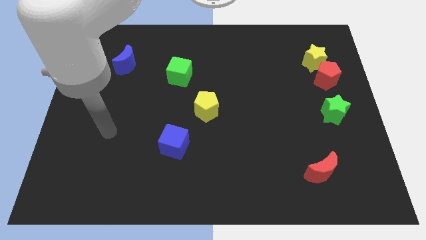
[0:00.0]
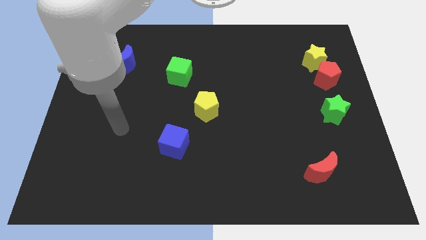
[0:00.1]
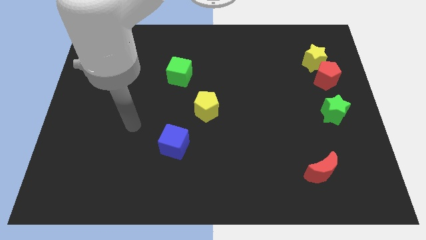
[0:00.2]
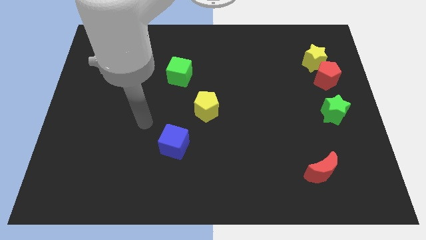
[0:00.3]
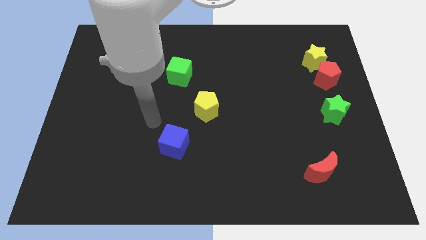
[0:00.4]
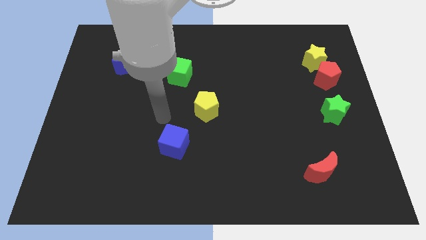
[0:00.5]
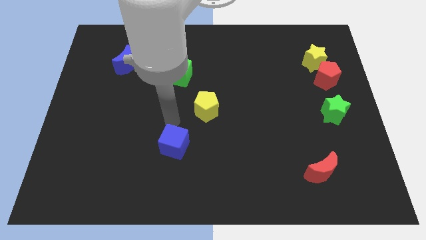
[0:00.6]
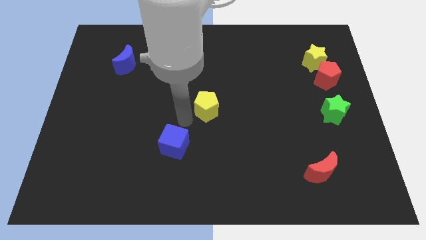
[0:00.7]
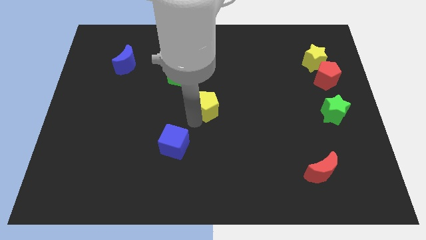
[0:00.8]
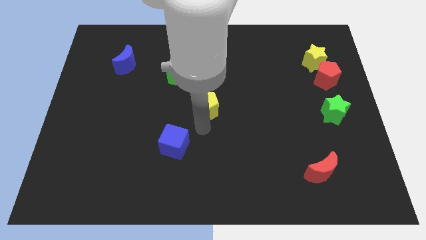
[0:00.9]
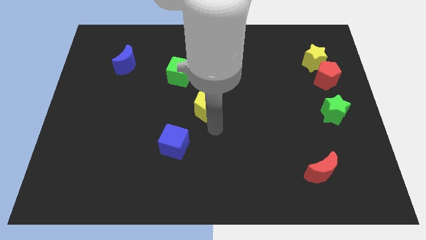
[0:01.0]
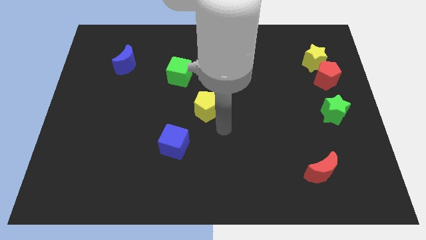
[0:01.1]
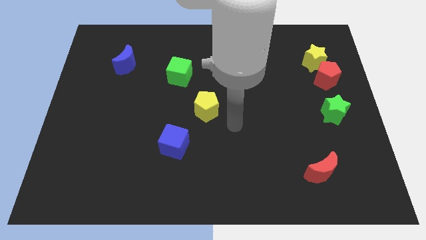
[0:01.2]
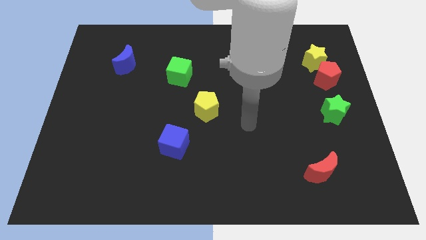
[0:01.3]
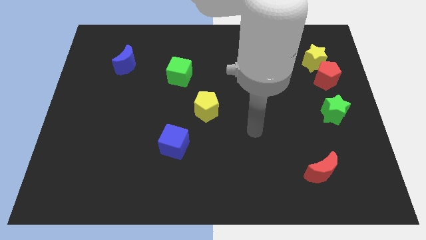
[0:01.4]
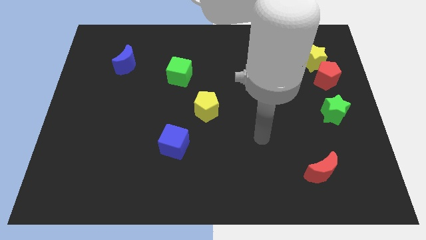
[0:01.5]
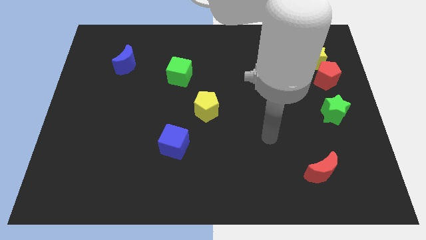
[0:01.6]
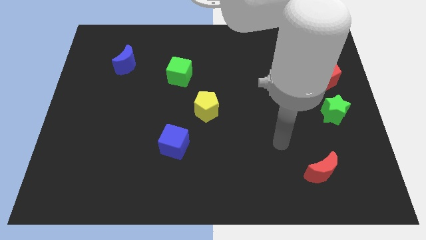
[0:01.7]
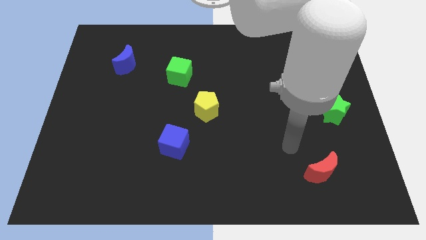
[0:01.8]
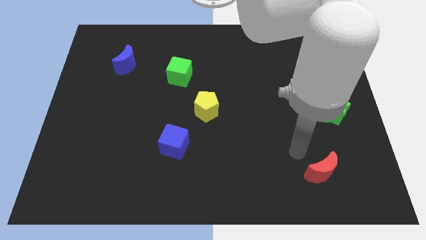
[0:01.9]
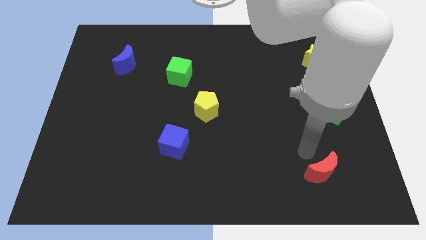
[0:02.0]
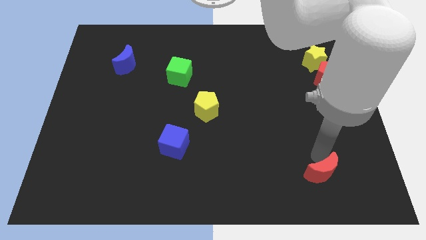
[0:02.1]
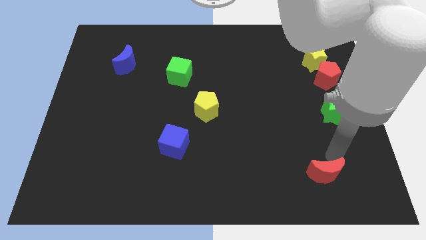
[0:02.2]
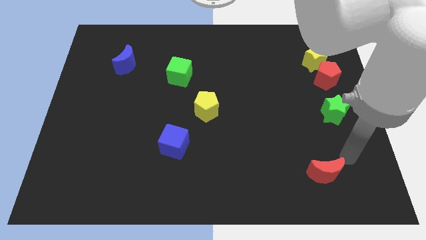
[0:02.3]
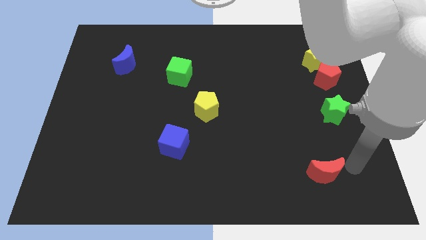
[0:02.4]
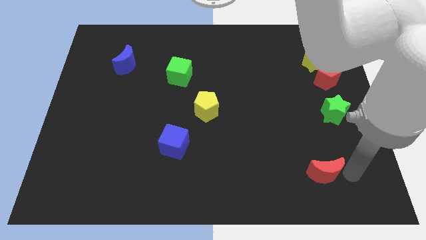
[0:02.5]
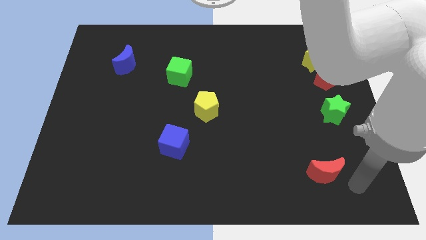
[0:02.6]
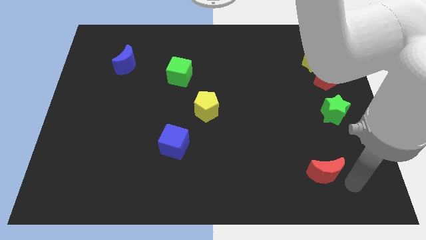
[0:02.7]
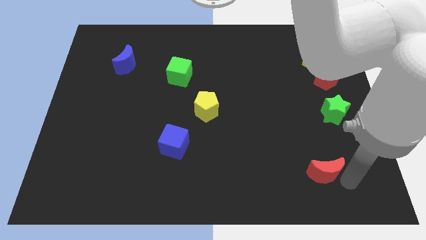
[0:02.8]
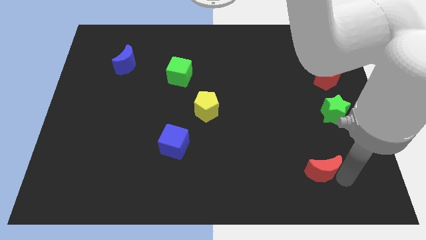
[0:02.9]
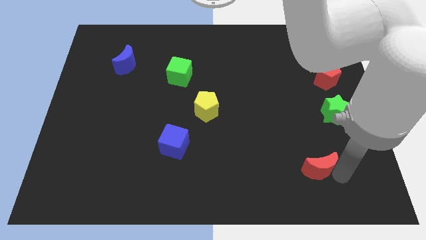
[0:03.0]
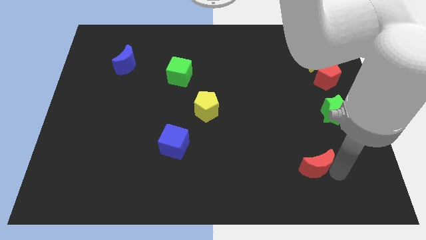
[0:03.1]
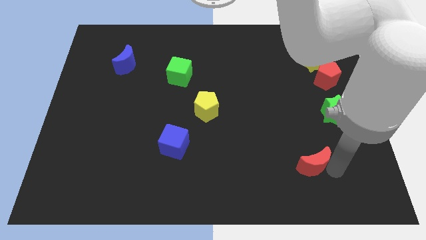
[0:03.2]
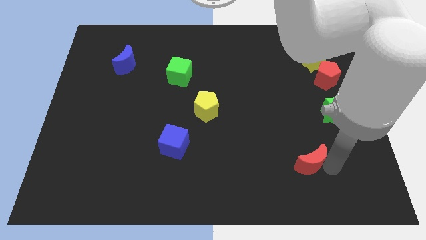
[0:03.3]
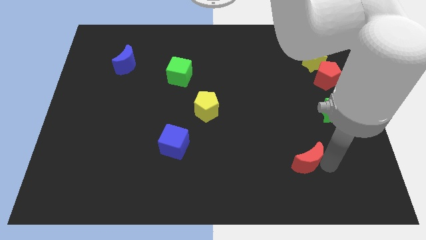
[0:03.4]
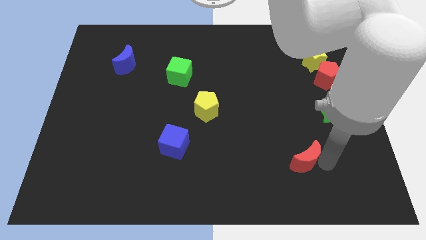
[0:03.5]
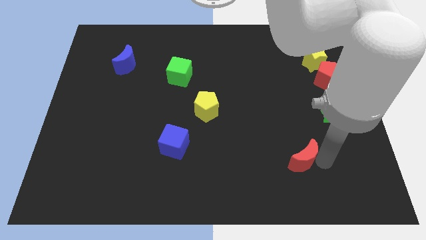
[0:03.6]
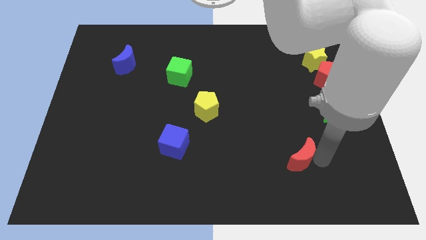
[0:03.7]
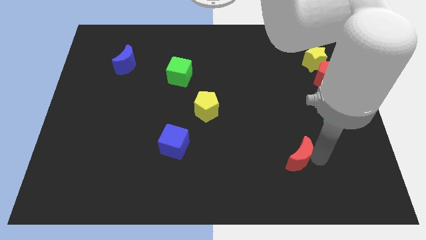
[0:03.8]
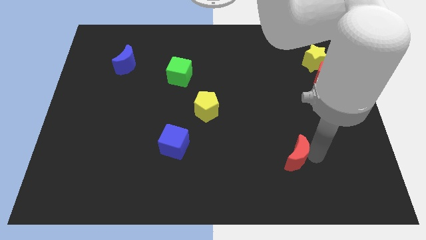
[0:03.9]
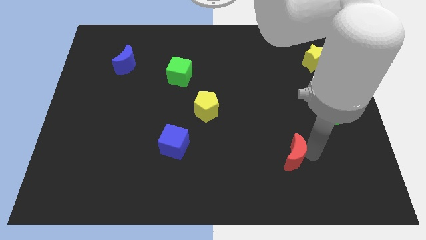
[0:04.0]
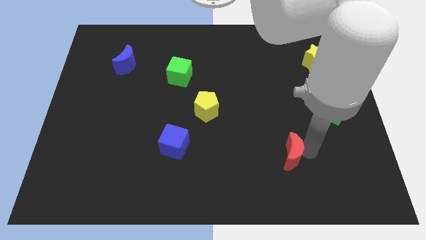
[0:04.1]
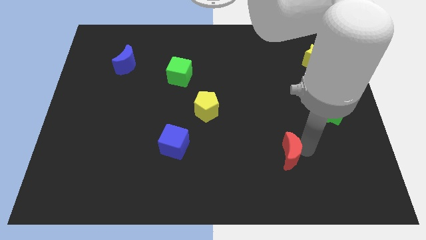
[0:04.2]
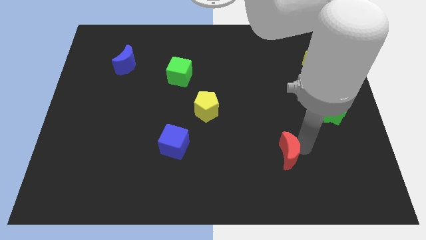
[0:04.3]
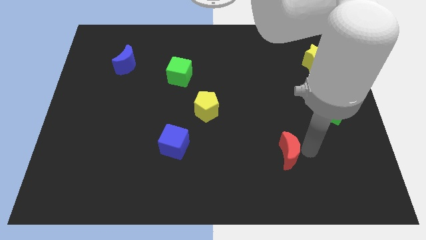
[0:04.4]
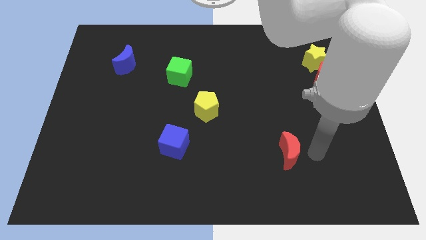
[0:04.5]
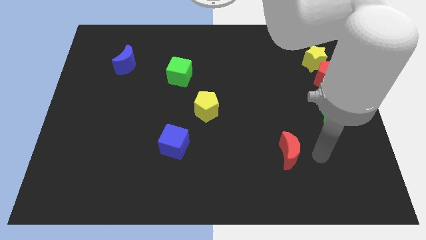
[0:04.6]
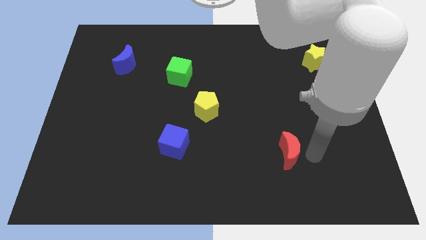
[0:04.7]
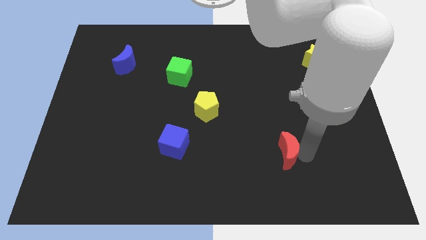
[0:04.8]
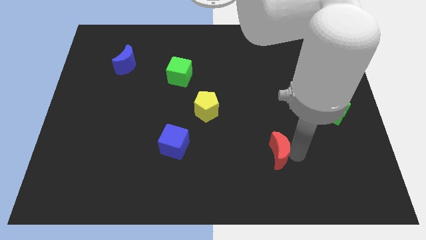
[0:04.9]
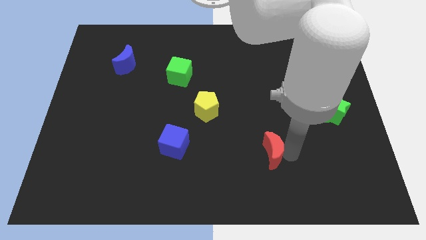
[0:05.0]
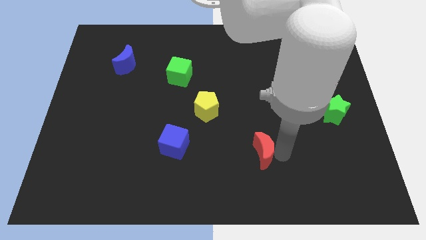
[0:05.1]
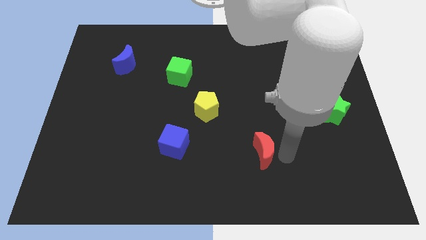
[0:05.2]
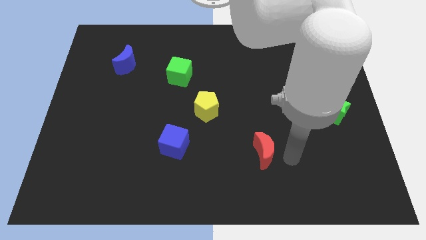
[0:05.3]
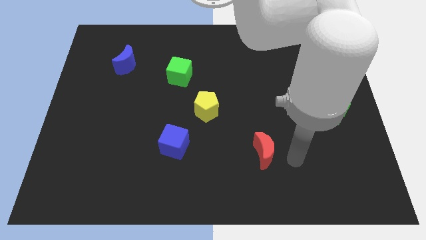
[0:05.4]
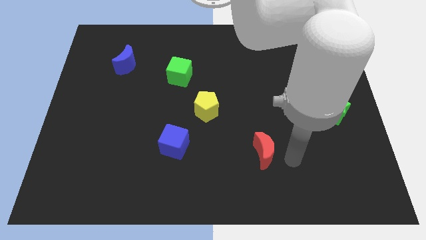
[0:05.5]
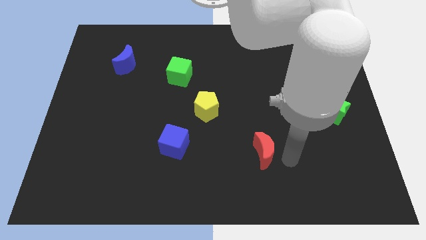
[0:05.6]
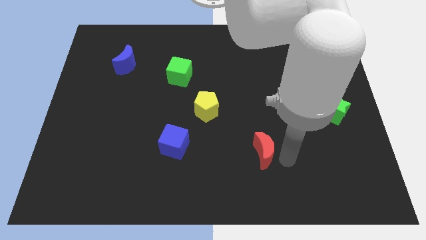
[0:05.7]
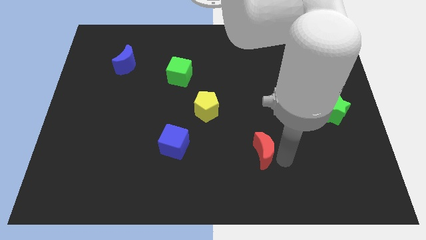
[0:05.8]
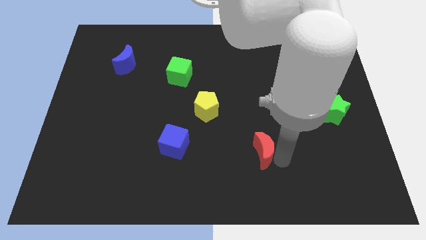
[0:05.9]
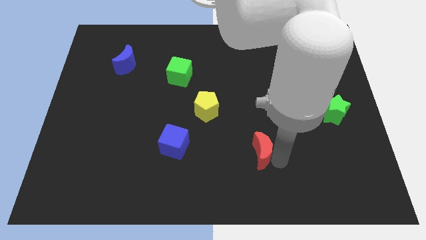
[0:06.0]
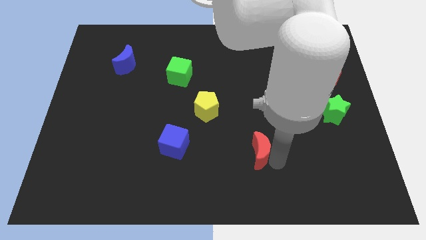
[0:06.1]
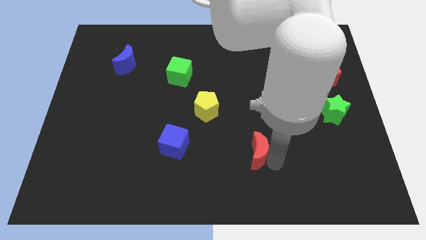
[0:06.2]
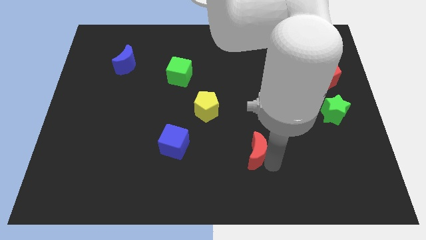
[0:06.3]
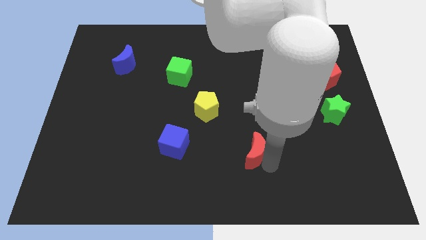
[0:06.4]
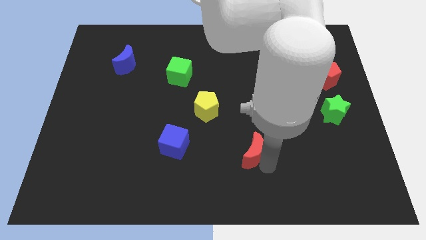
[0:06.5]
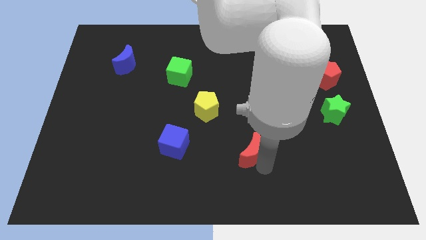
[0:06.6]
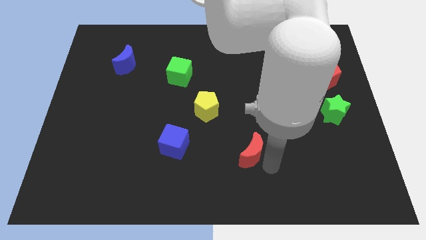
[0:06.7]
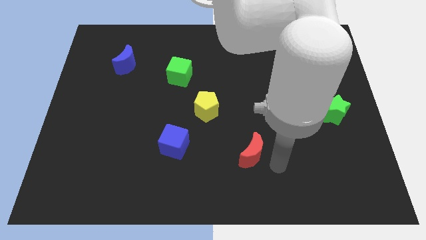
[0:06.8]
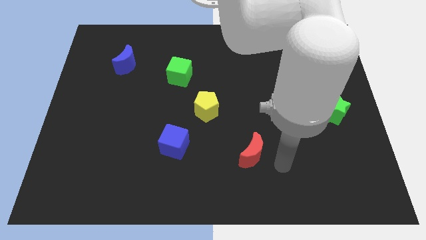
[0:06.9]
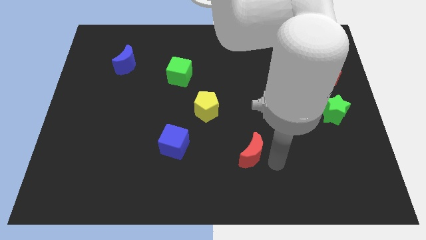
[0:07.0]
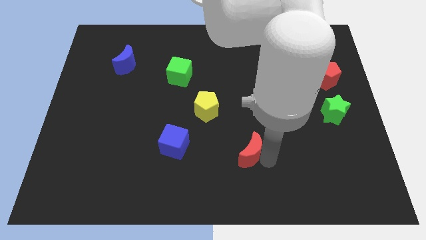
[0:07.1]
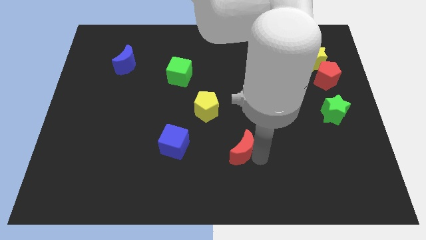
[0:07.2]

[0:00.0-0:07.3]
move the red moon to the right of the blue cube
